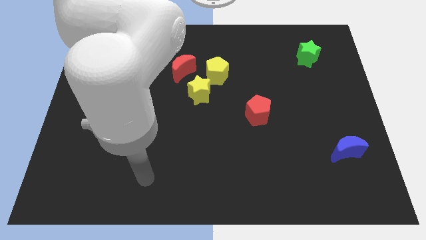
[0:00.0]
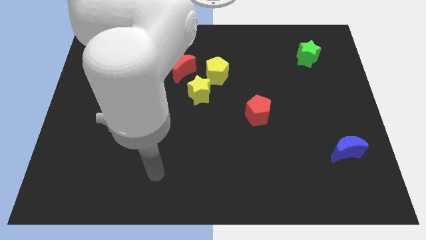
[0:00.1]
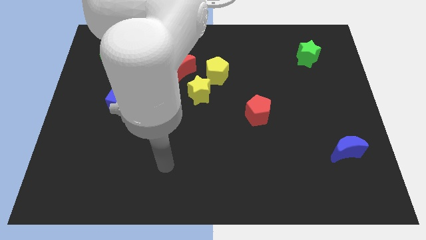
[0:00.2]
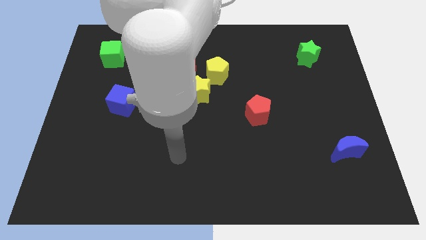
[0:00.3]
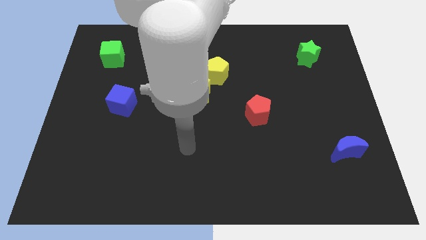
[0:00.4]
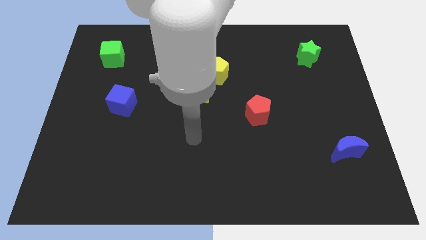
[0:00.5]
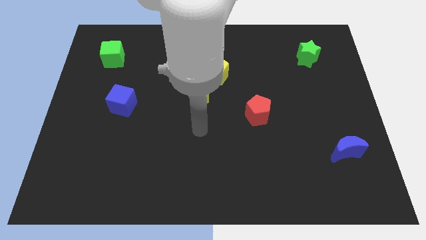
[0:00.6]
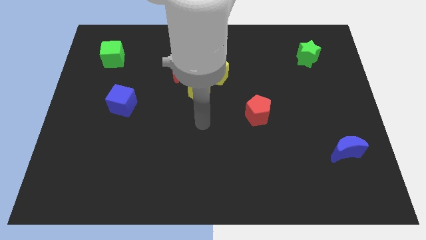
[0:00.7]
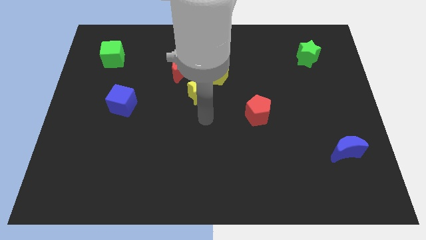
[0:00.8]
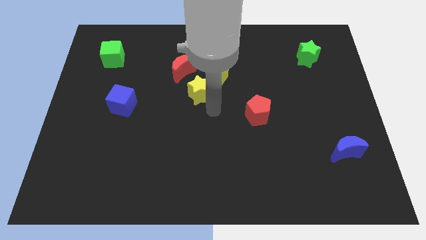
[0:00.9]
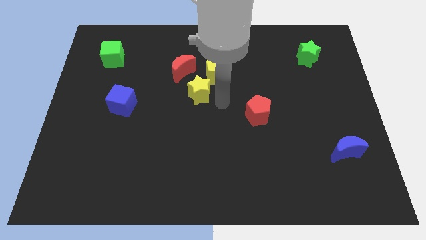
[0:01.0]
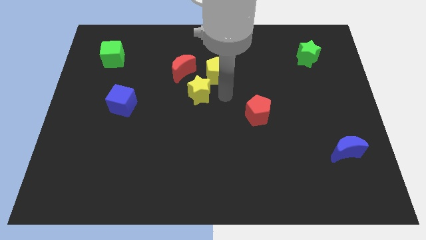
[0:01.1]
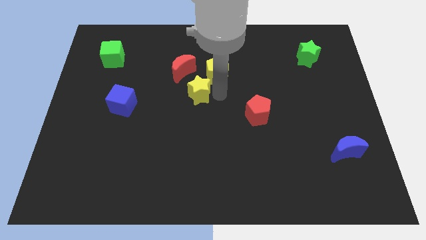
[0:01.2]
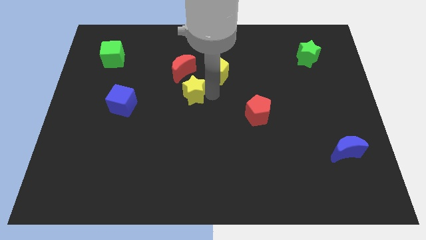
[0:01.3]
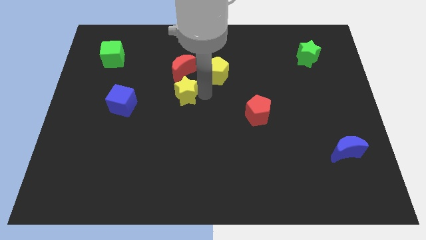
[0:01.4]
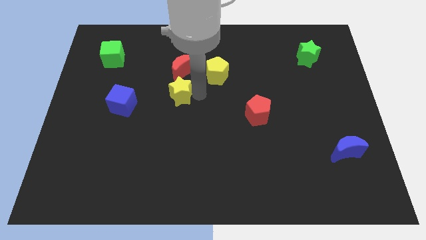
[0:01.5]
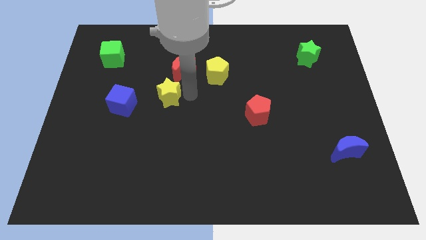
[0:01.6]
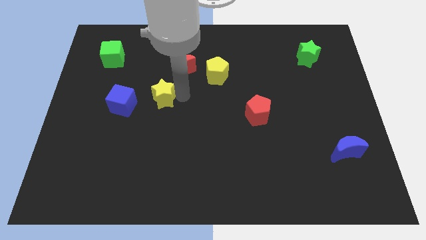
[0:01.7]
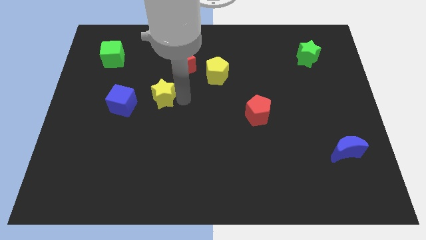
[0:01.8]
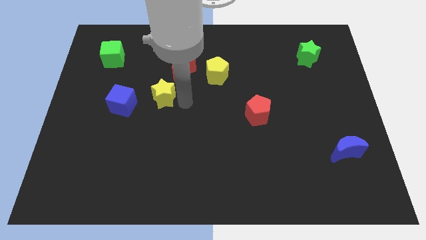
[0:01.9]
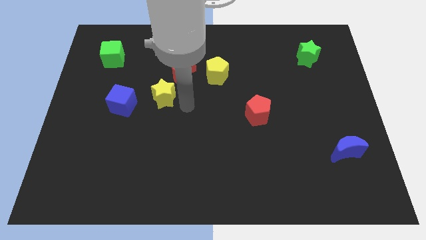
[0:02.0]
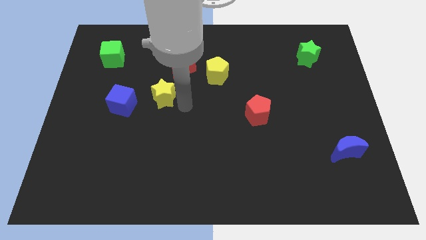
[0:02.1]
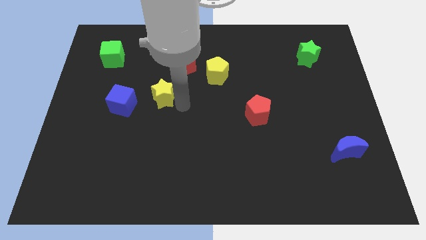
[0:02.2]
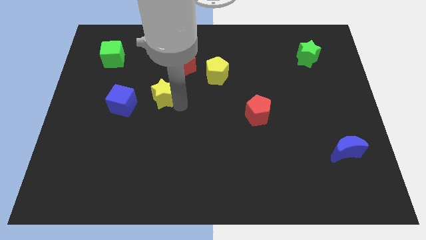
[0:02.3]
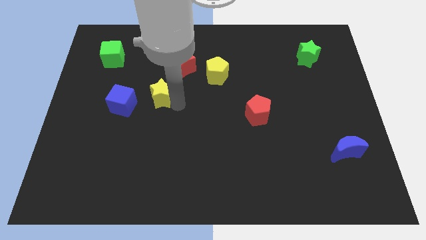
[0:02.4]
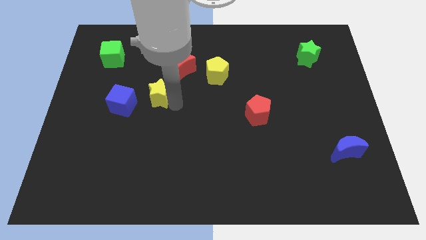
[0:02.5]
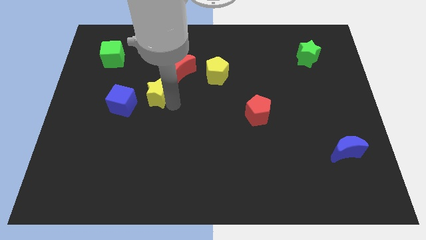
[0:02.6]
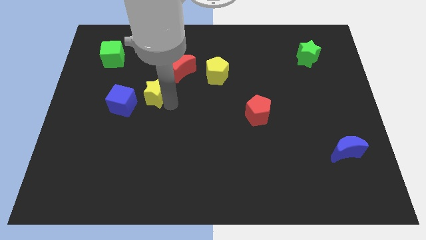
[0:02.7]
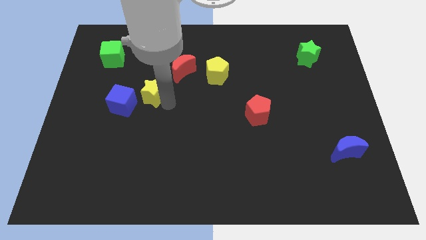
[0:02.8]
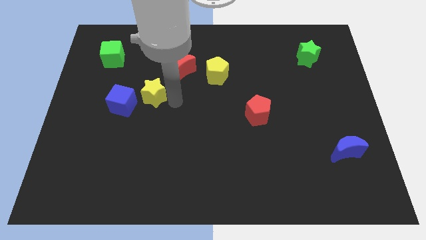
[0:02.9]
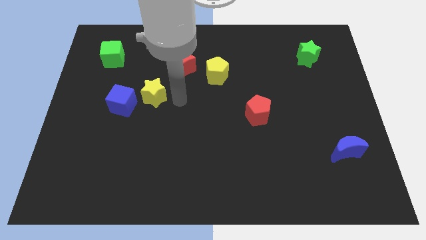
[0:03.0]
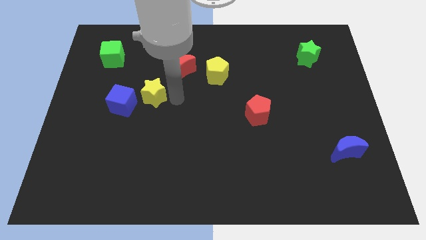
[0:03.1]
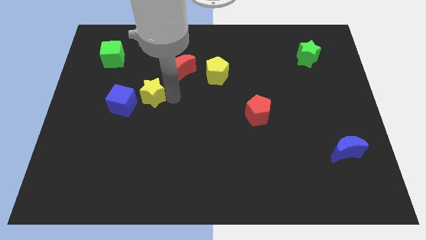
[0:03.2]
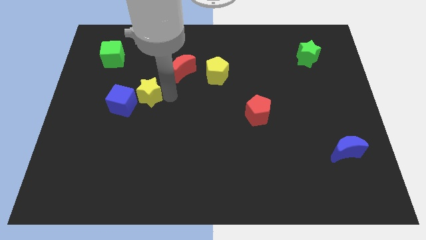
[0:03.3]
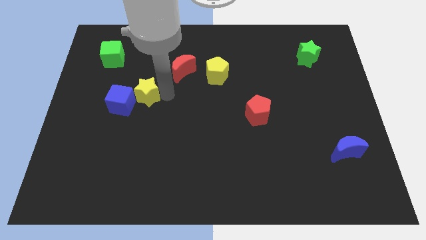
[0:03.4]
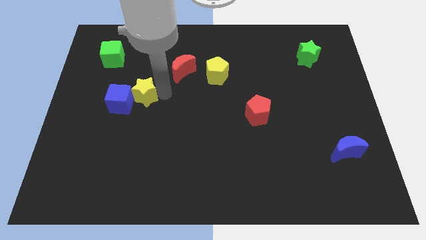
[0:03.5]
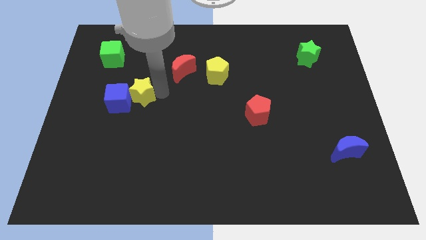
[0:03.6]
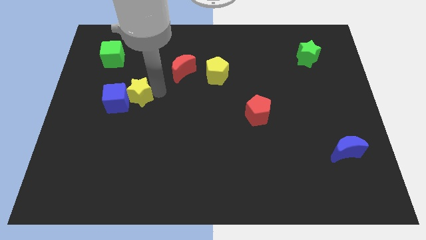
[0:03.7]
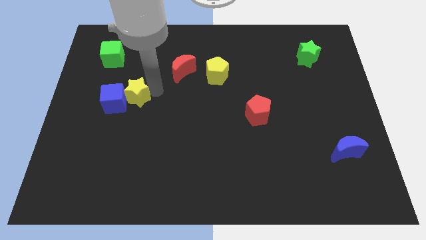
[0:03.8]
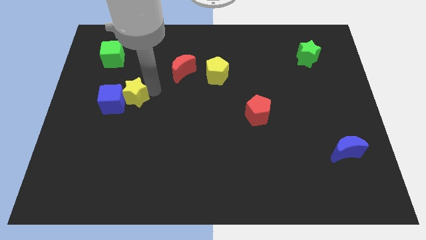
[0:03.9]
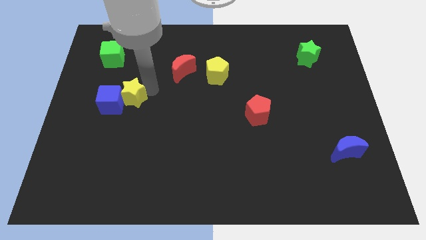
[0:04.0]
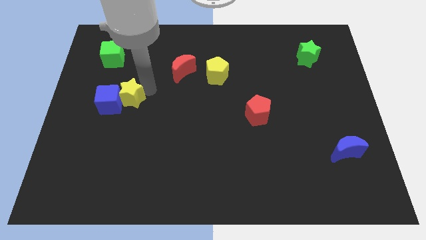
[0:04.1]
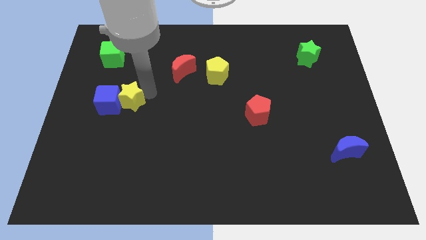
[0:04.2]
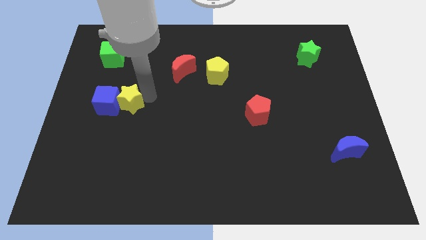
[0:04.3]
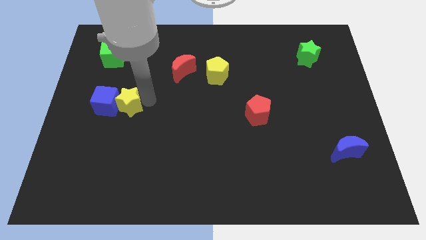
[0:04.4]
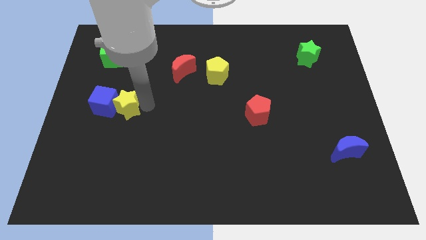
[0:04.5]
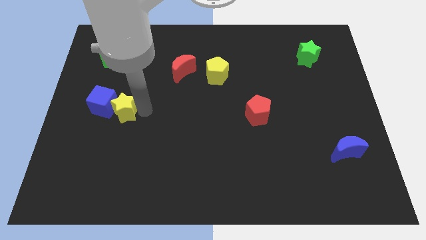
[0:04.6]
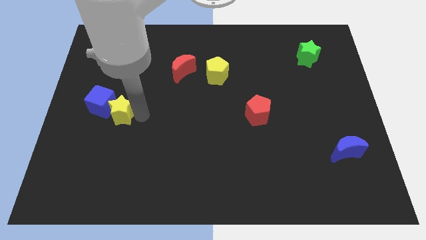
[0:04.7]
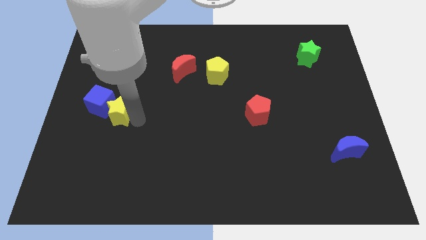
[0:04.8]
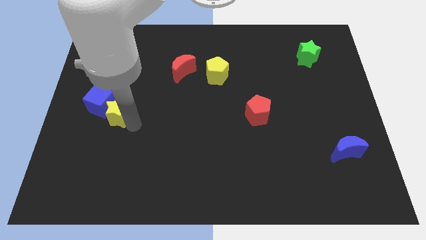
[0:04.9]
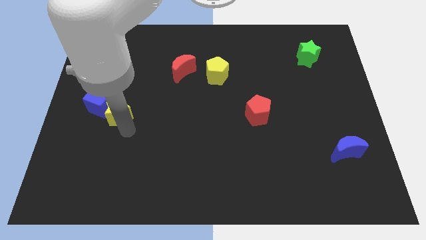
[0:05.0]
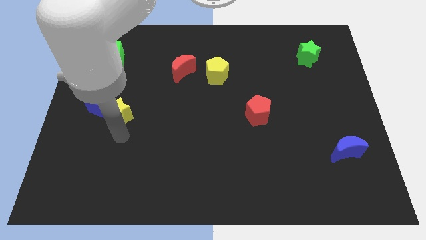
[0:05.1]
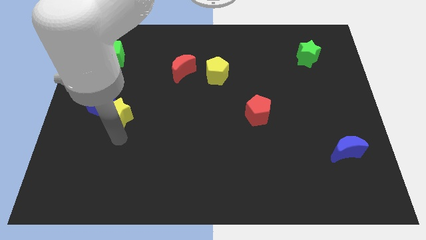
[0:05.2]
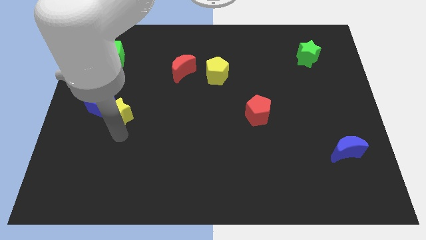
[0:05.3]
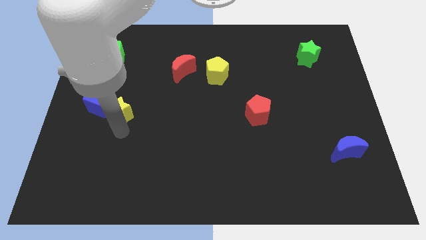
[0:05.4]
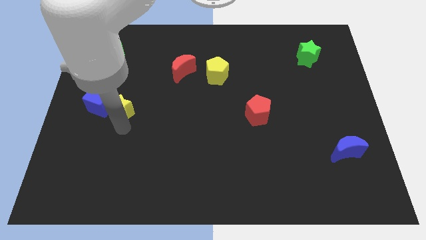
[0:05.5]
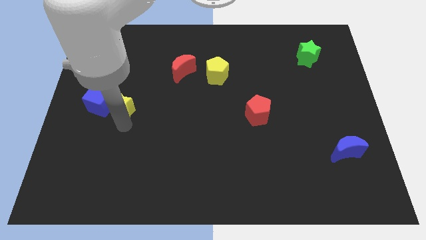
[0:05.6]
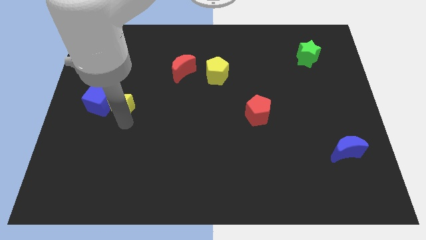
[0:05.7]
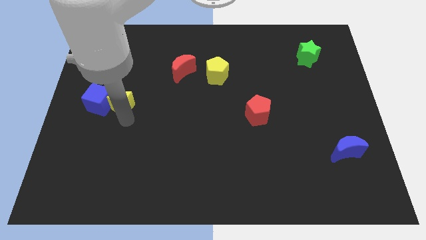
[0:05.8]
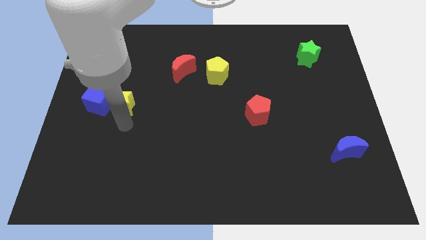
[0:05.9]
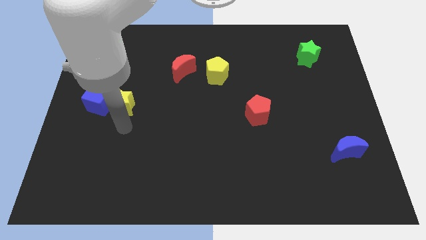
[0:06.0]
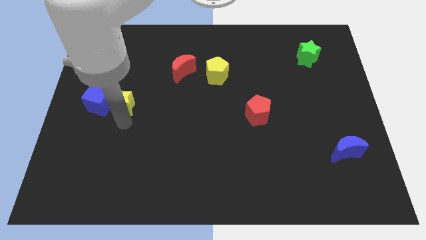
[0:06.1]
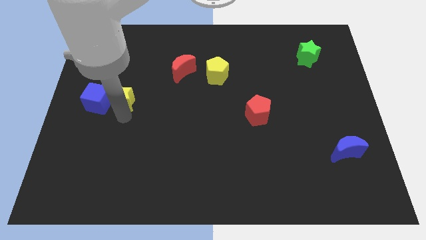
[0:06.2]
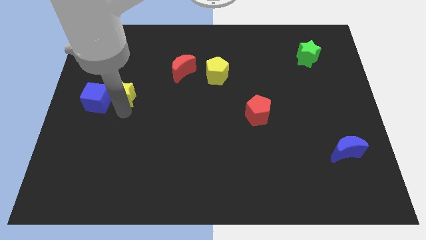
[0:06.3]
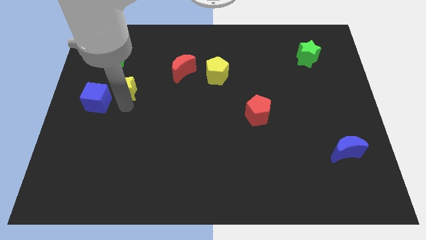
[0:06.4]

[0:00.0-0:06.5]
put the yellow star below the green cube

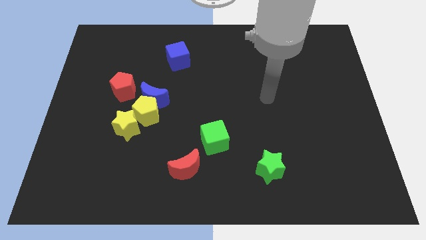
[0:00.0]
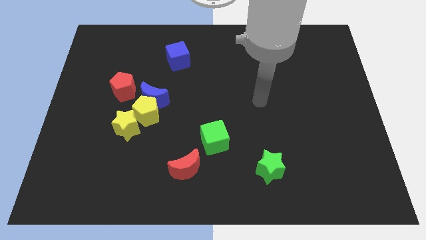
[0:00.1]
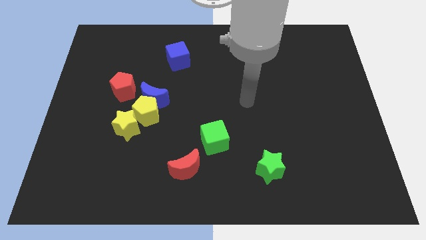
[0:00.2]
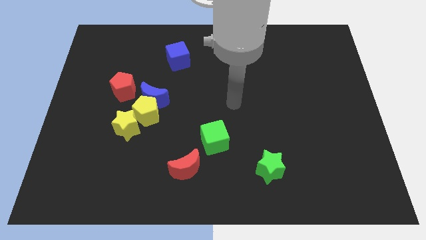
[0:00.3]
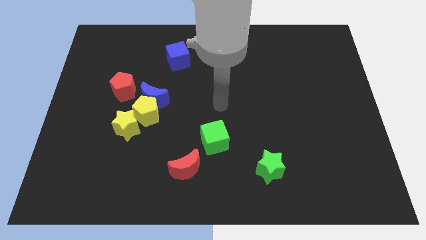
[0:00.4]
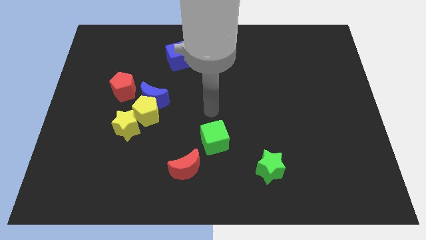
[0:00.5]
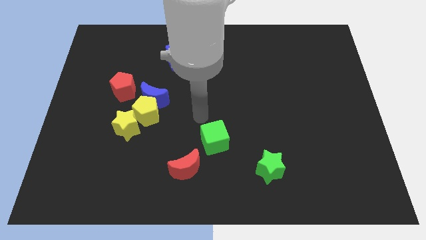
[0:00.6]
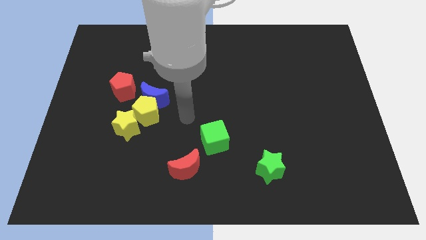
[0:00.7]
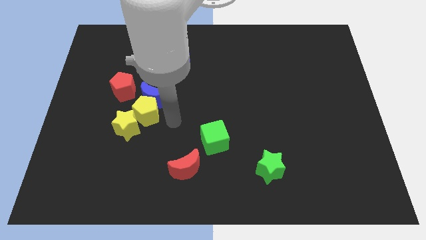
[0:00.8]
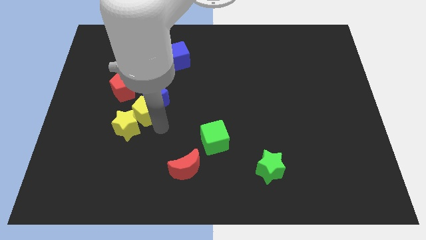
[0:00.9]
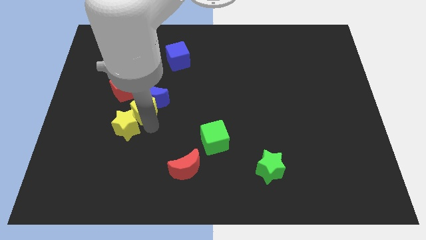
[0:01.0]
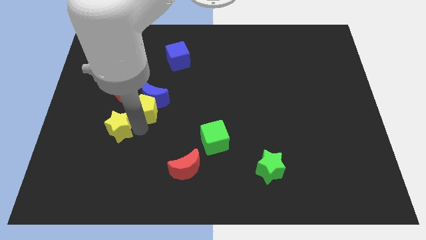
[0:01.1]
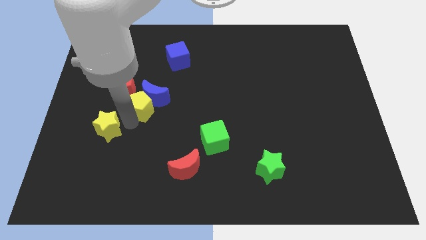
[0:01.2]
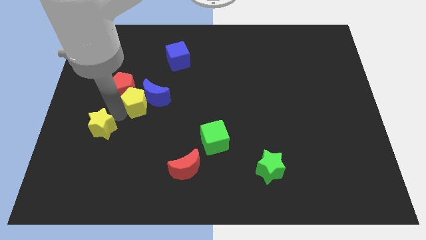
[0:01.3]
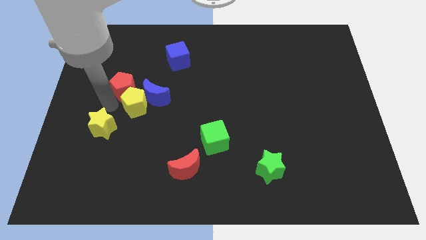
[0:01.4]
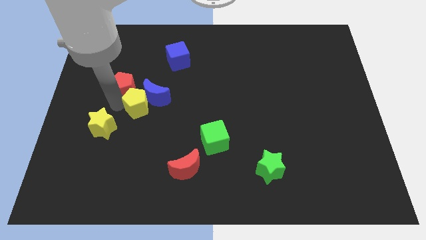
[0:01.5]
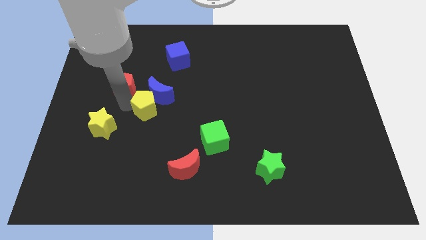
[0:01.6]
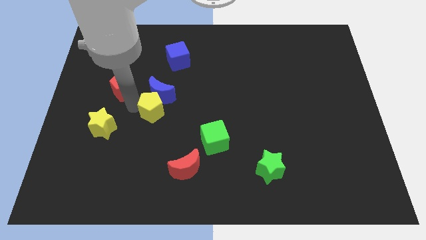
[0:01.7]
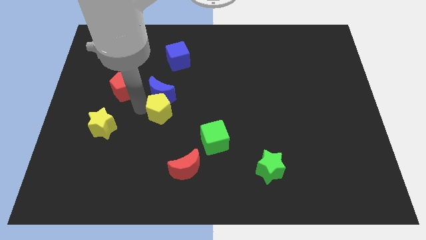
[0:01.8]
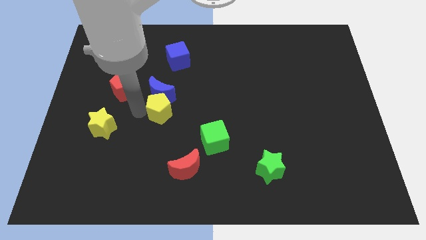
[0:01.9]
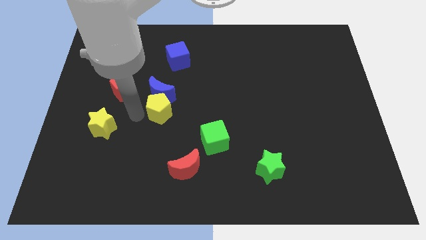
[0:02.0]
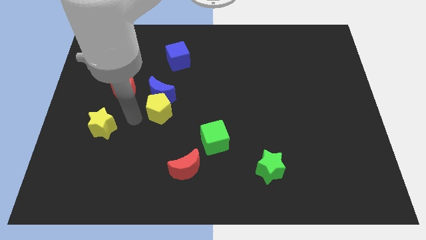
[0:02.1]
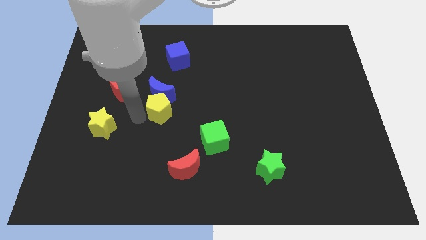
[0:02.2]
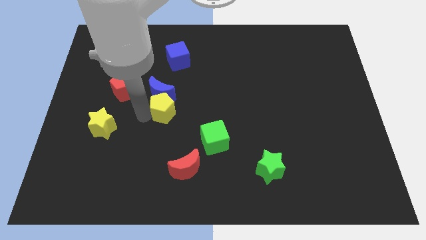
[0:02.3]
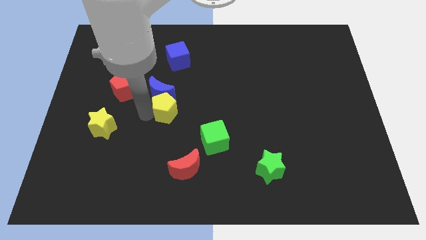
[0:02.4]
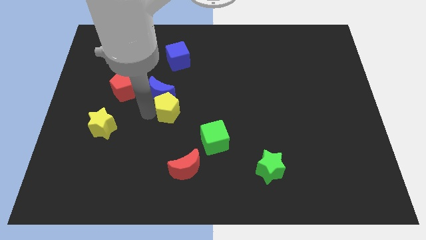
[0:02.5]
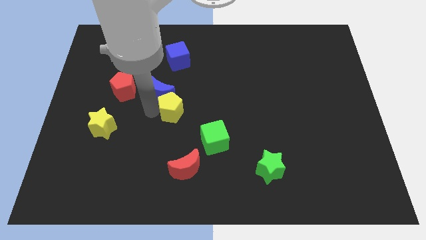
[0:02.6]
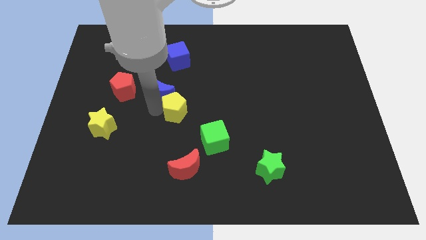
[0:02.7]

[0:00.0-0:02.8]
push the yellow pentagon to the right of the blue moon
